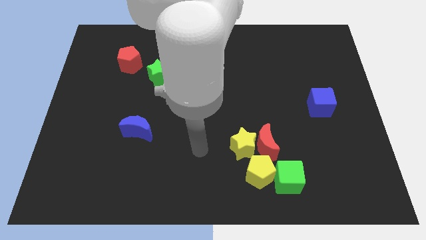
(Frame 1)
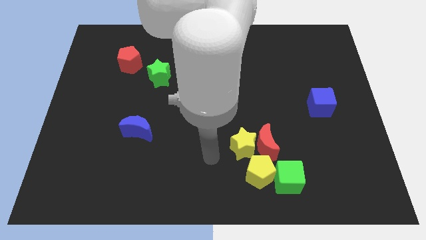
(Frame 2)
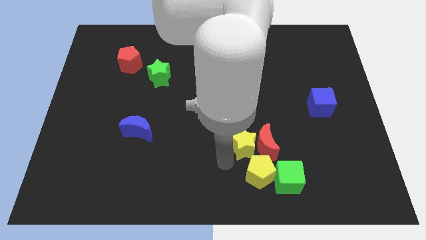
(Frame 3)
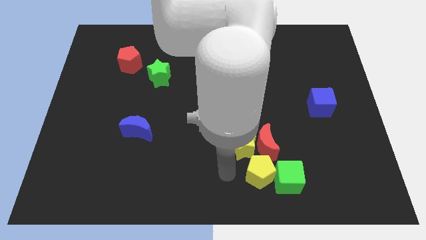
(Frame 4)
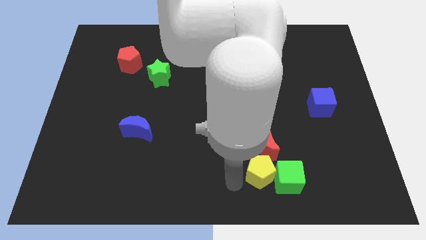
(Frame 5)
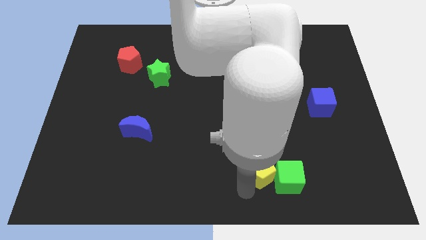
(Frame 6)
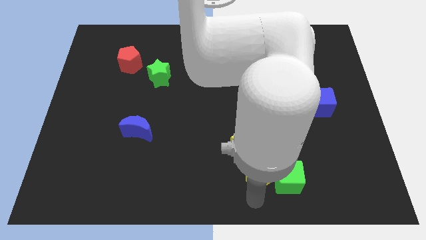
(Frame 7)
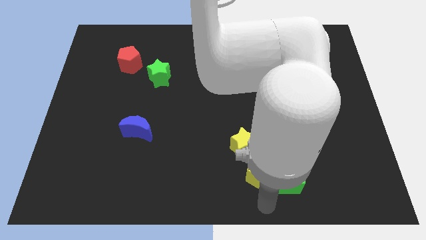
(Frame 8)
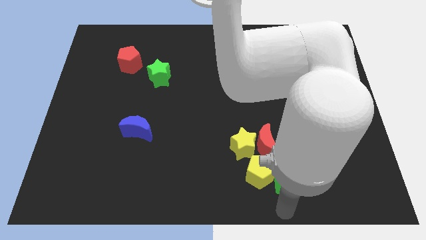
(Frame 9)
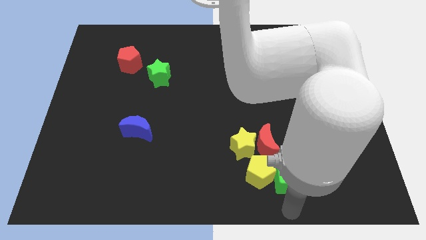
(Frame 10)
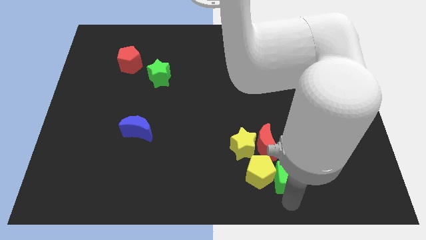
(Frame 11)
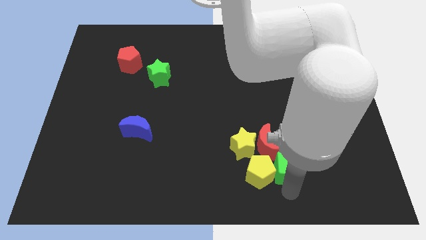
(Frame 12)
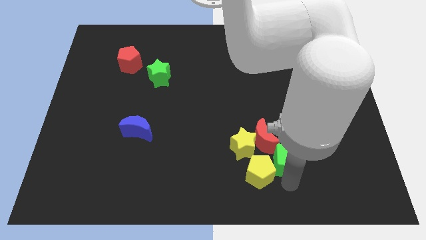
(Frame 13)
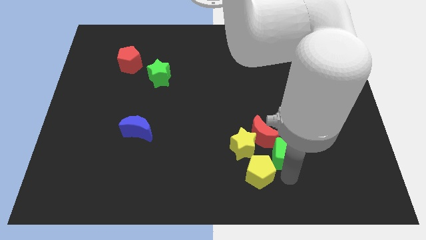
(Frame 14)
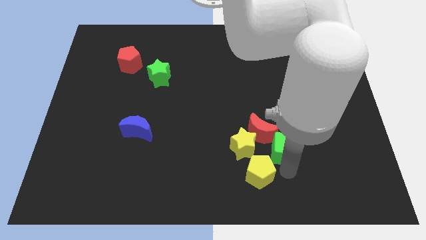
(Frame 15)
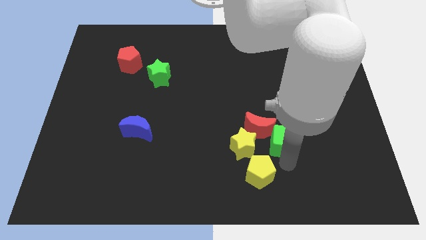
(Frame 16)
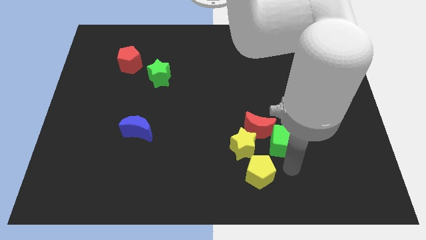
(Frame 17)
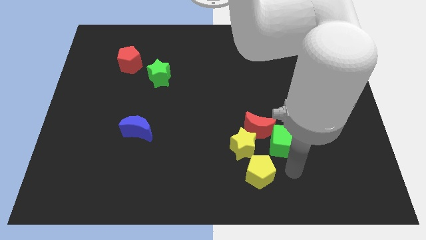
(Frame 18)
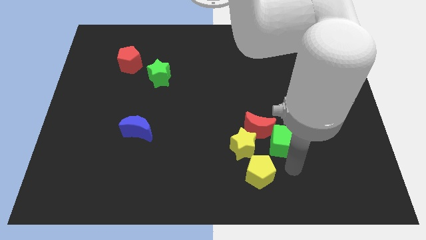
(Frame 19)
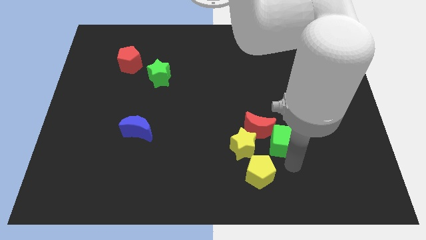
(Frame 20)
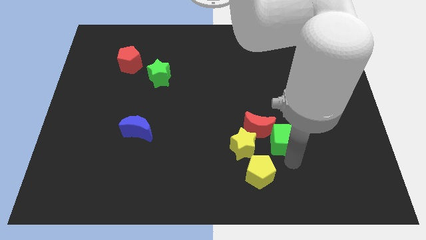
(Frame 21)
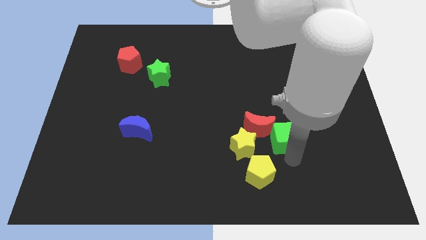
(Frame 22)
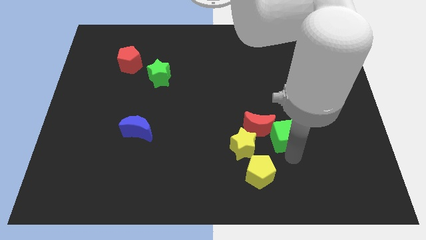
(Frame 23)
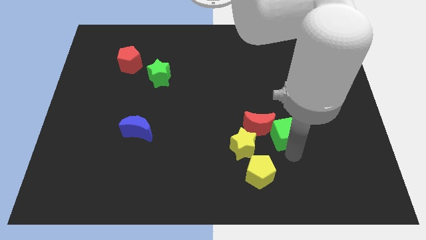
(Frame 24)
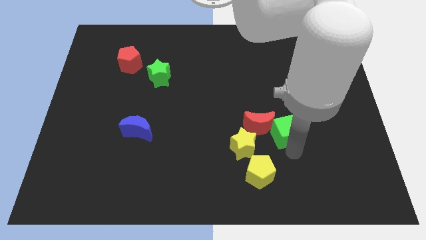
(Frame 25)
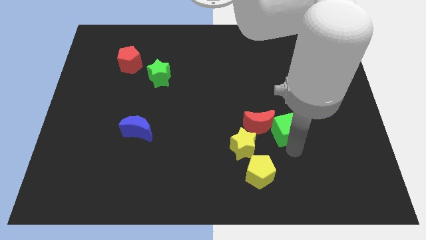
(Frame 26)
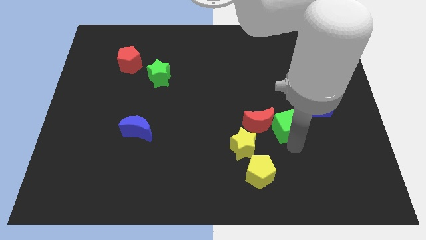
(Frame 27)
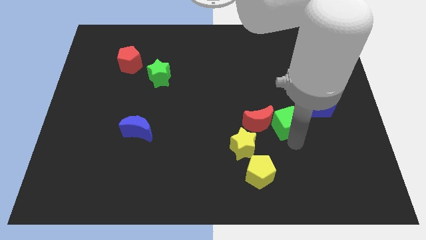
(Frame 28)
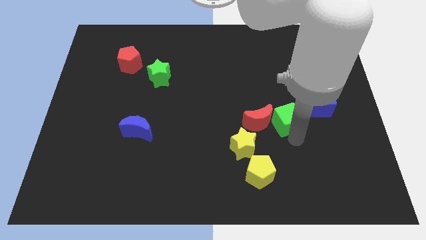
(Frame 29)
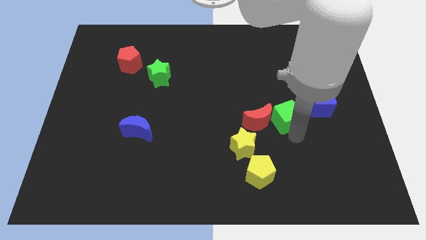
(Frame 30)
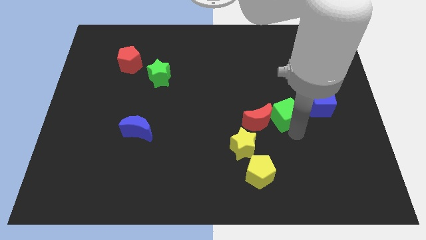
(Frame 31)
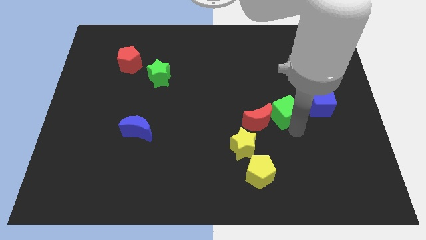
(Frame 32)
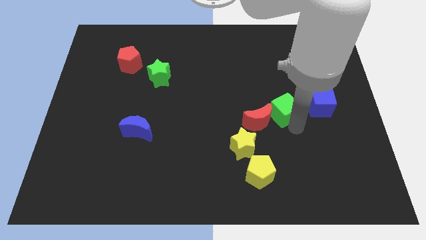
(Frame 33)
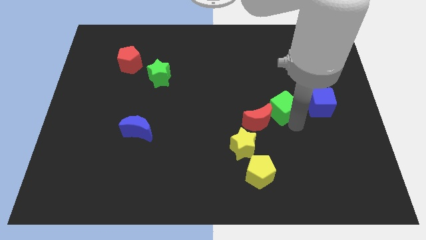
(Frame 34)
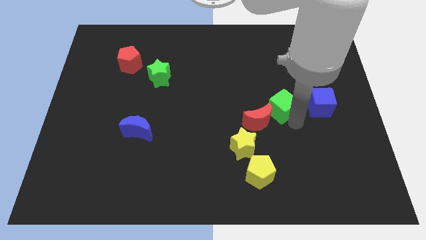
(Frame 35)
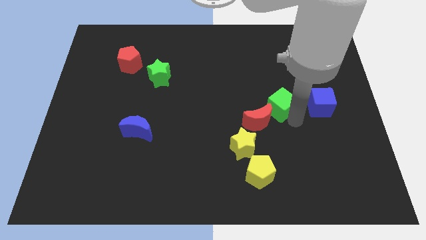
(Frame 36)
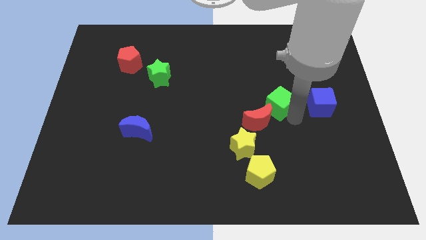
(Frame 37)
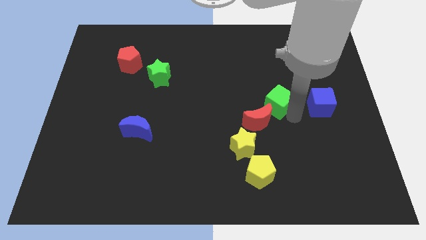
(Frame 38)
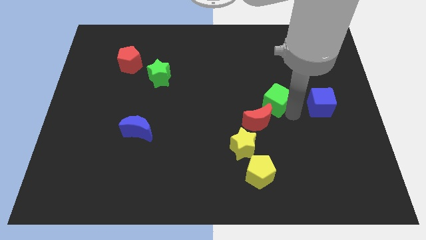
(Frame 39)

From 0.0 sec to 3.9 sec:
move the green cube upwards

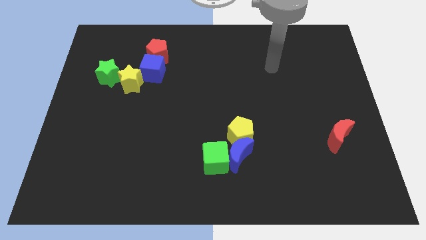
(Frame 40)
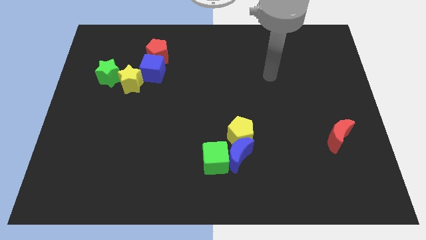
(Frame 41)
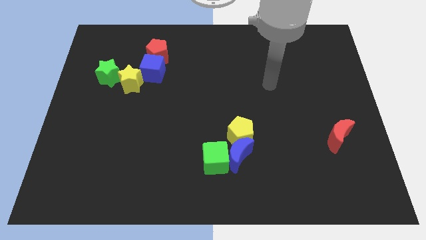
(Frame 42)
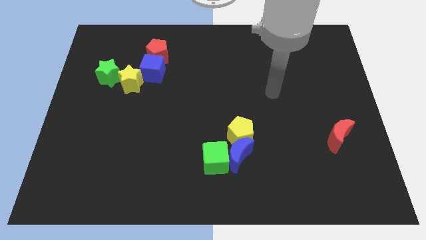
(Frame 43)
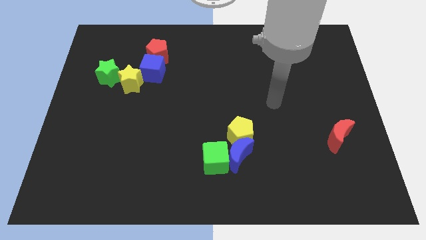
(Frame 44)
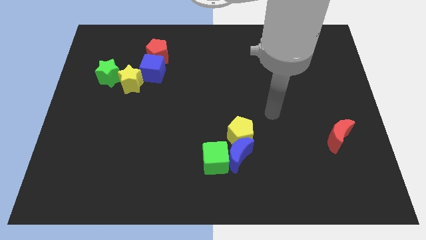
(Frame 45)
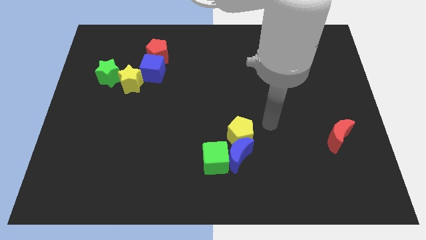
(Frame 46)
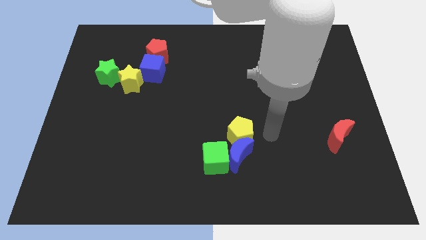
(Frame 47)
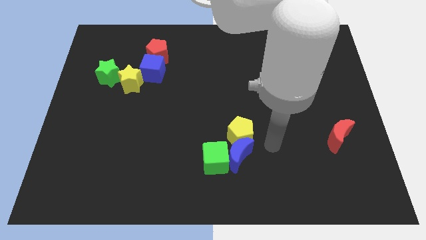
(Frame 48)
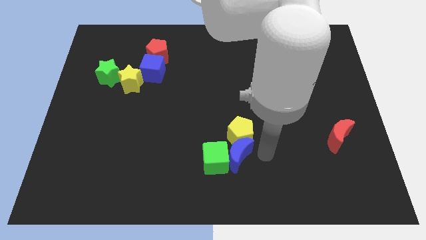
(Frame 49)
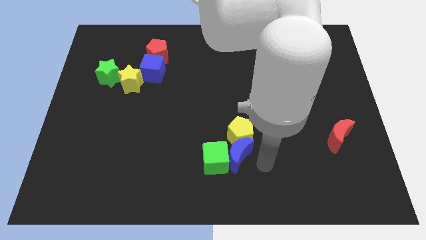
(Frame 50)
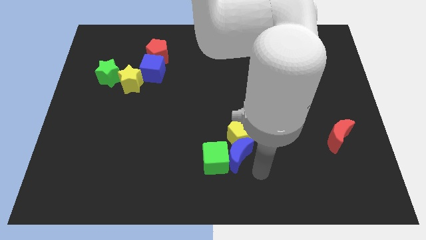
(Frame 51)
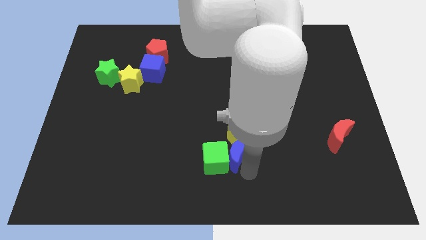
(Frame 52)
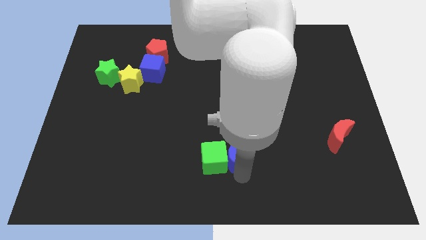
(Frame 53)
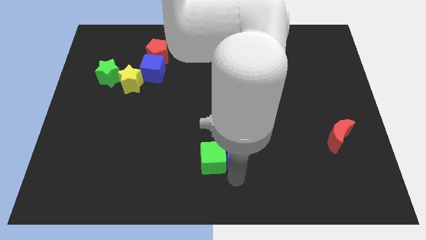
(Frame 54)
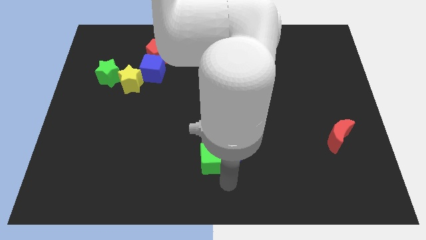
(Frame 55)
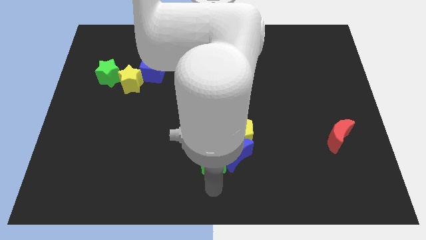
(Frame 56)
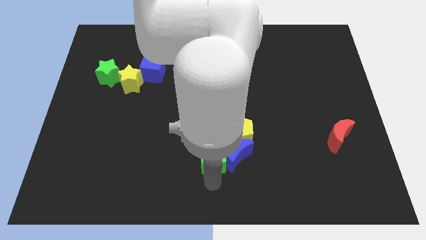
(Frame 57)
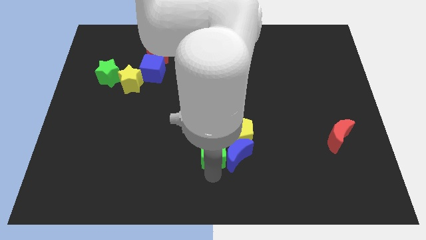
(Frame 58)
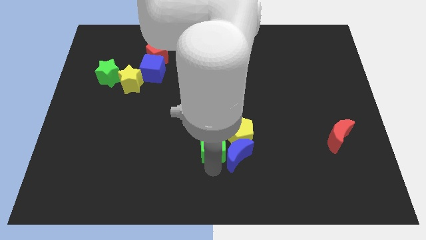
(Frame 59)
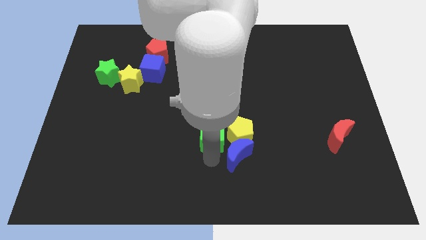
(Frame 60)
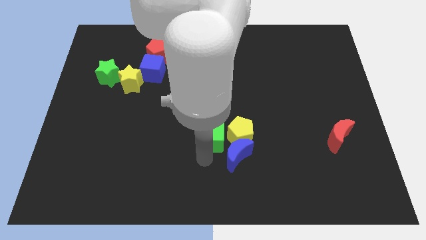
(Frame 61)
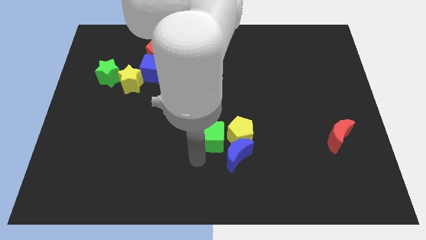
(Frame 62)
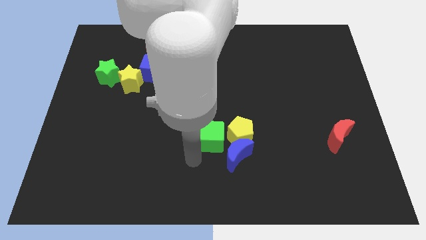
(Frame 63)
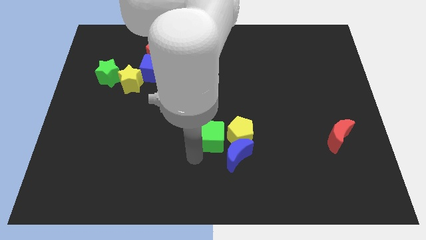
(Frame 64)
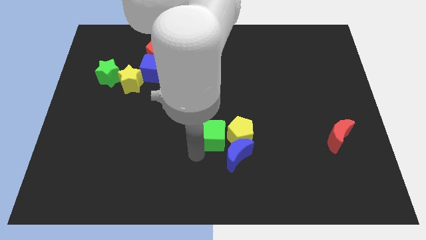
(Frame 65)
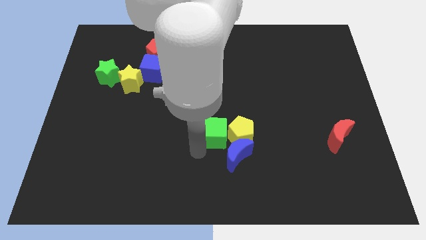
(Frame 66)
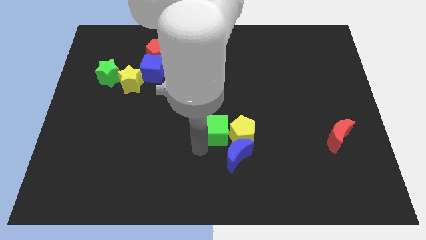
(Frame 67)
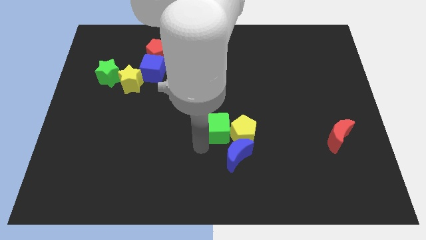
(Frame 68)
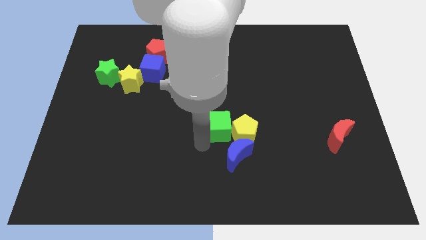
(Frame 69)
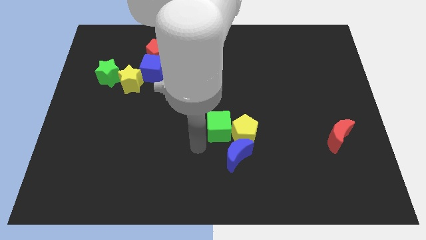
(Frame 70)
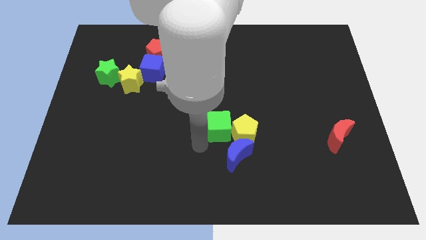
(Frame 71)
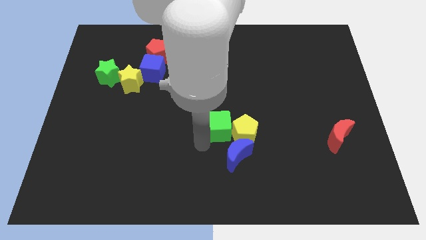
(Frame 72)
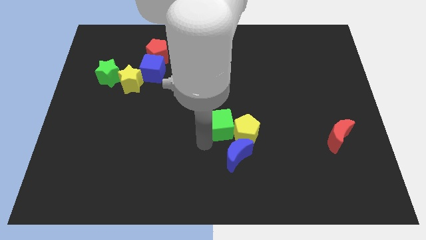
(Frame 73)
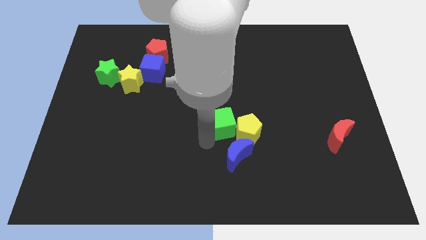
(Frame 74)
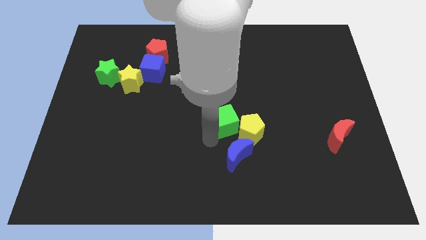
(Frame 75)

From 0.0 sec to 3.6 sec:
push the green cube up and to the right somewhat

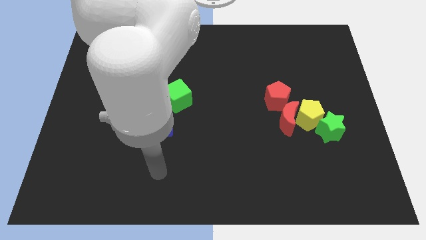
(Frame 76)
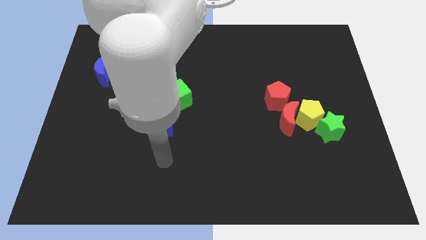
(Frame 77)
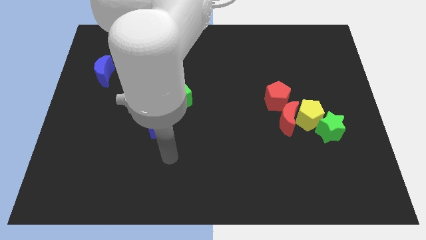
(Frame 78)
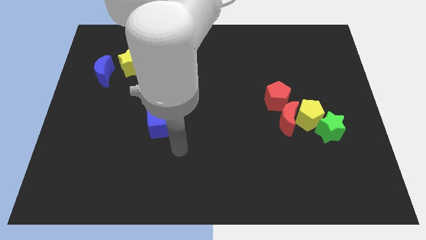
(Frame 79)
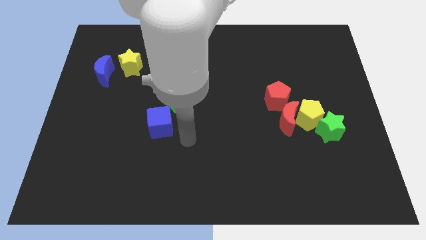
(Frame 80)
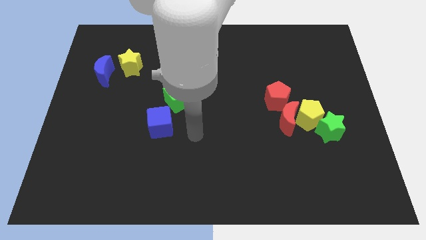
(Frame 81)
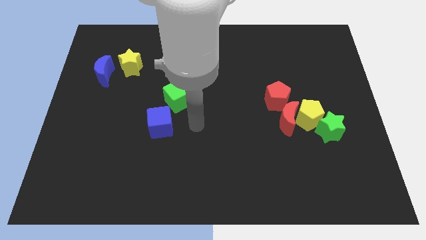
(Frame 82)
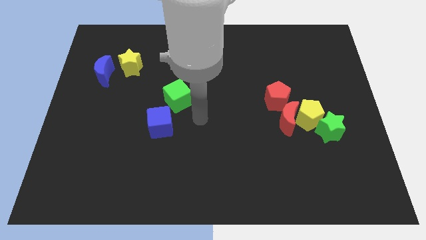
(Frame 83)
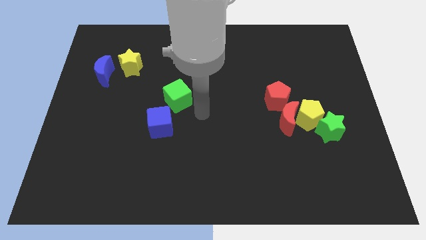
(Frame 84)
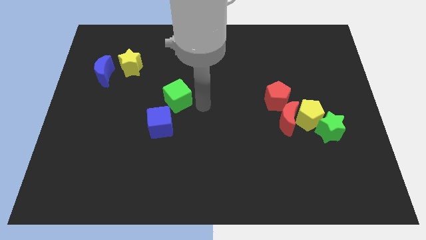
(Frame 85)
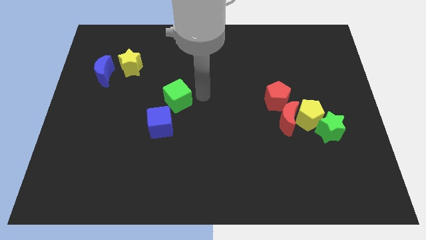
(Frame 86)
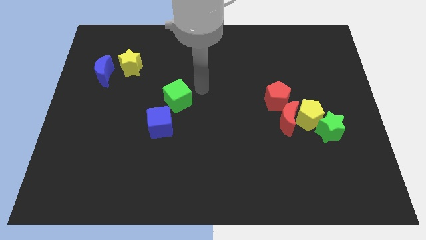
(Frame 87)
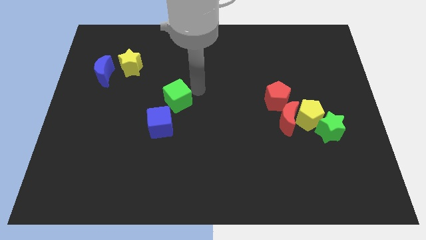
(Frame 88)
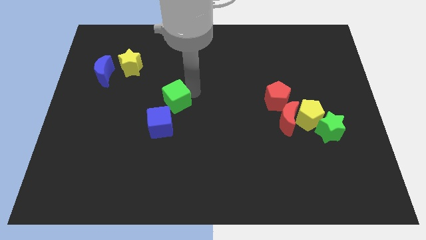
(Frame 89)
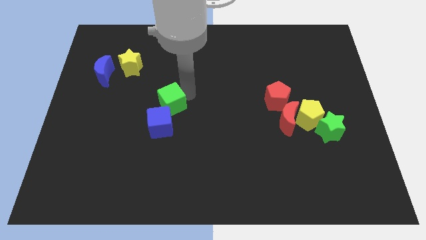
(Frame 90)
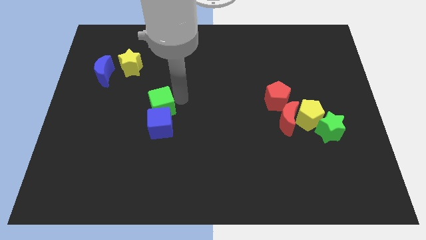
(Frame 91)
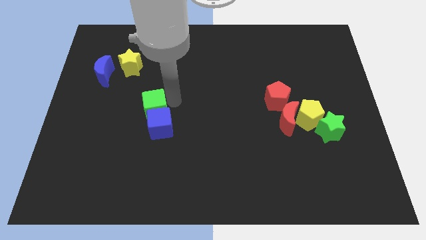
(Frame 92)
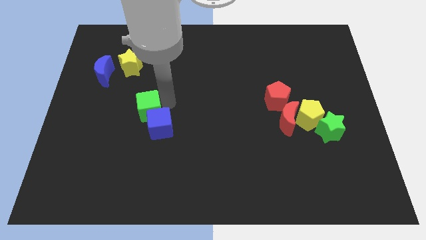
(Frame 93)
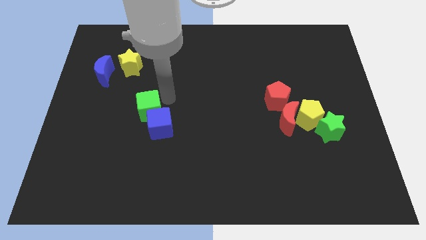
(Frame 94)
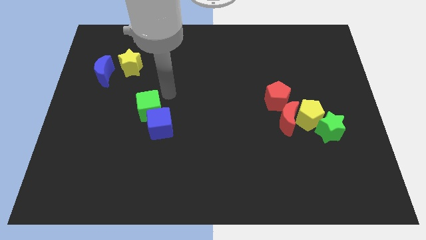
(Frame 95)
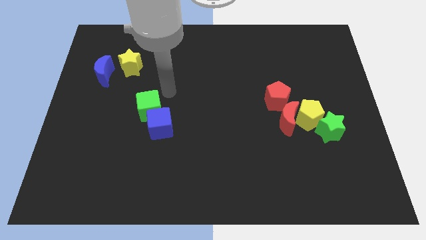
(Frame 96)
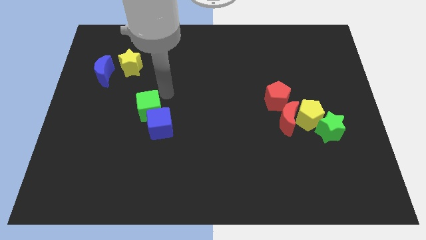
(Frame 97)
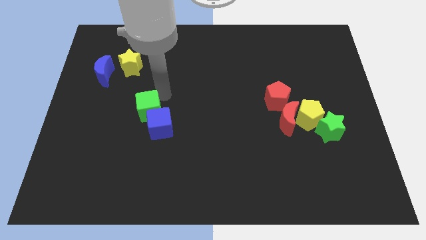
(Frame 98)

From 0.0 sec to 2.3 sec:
move the green cube a little downwards and then to the left
